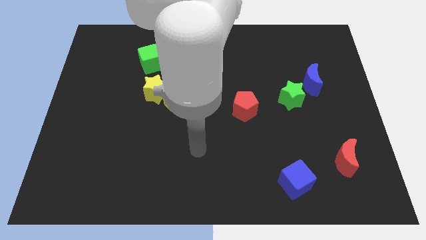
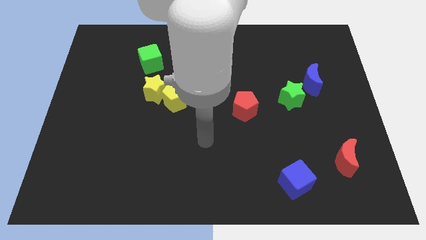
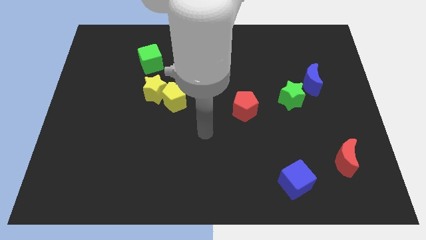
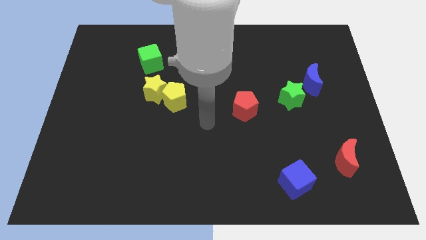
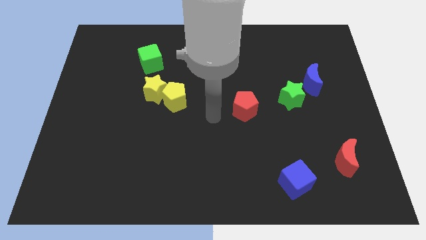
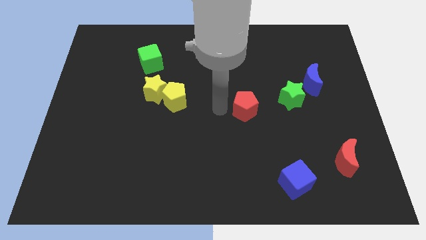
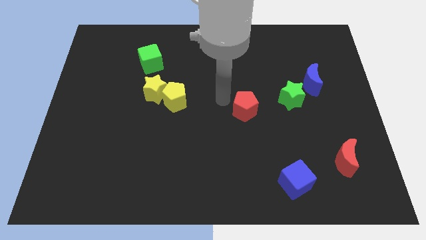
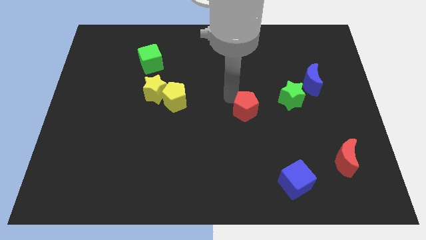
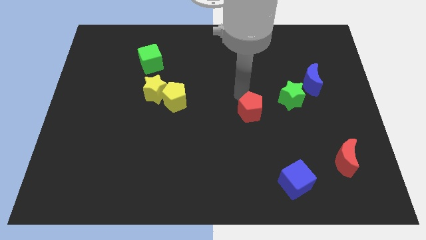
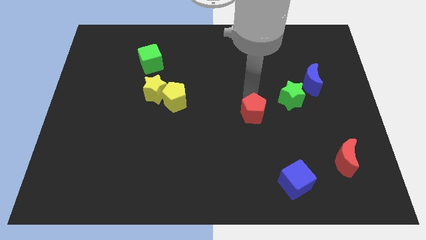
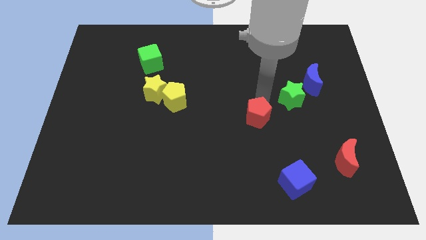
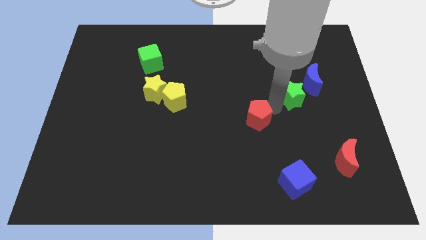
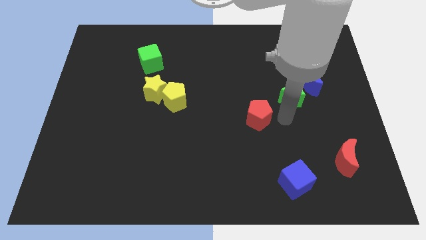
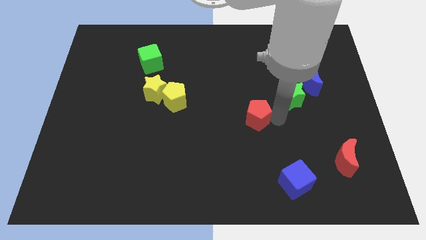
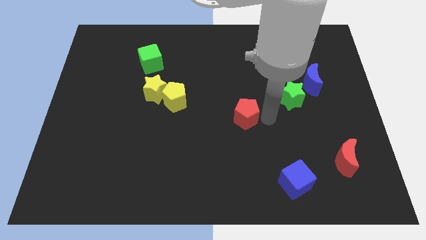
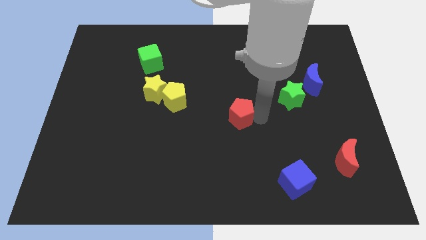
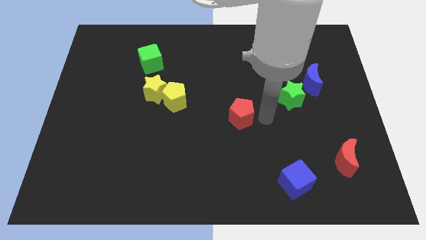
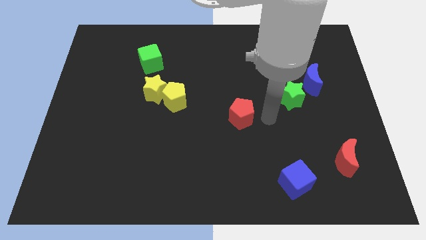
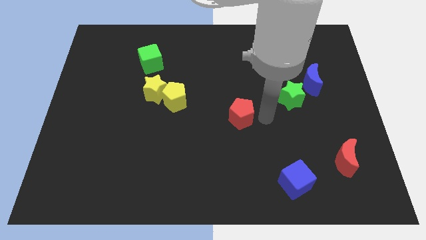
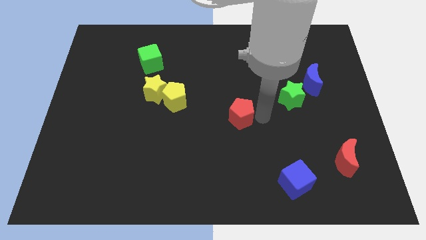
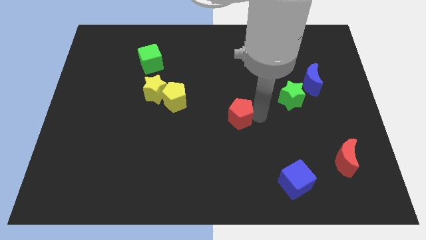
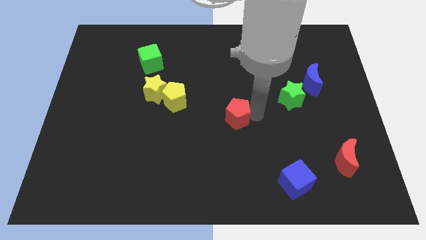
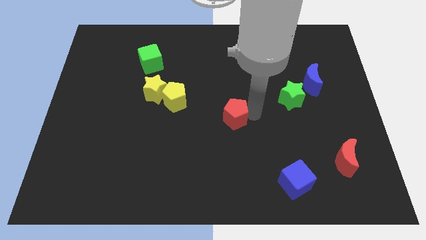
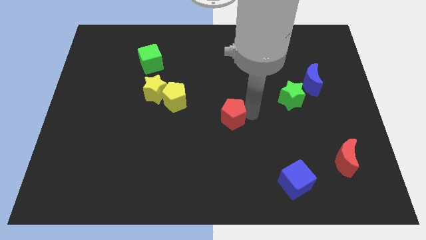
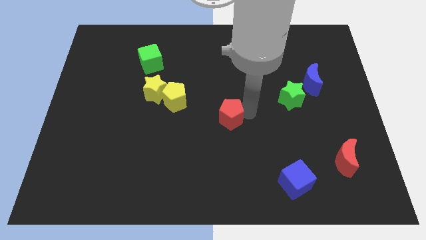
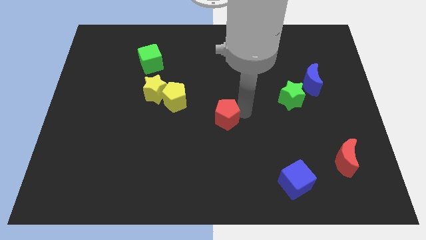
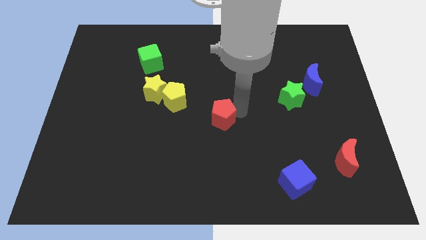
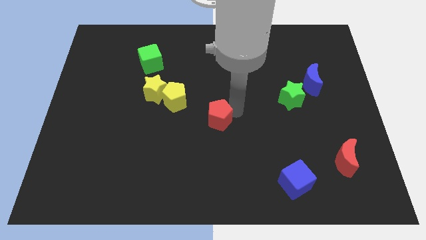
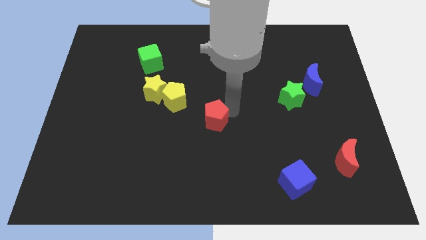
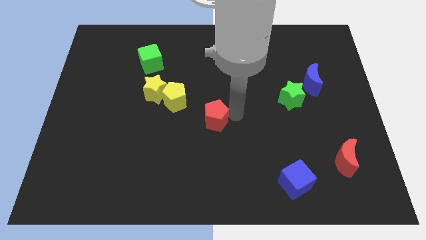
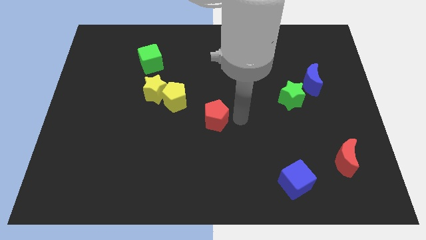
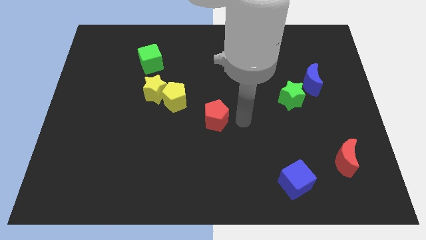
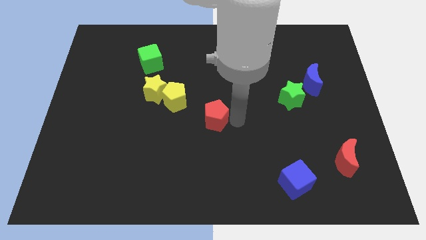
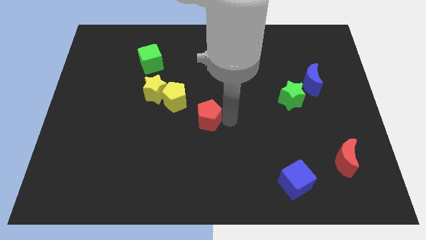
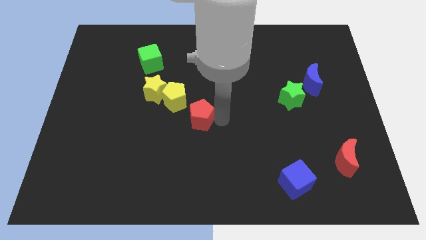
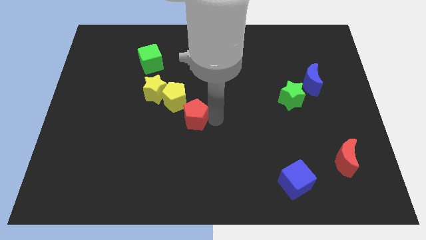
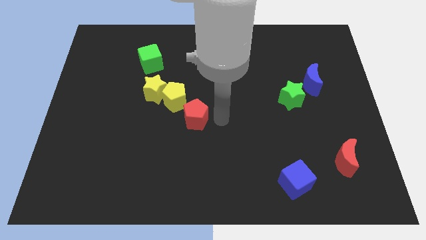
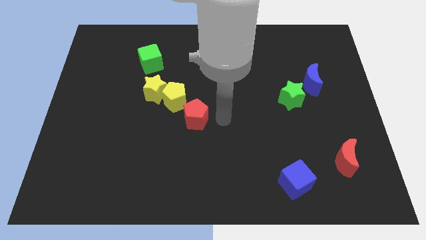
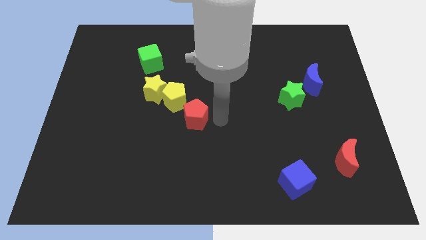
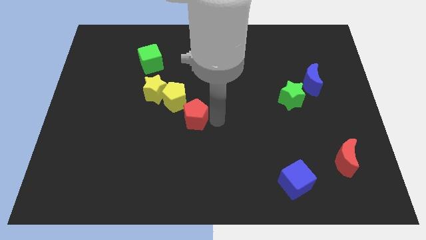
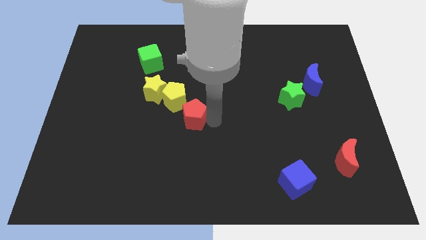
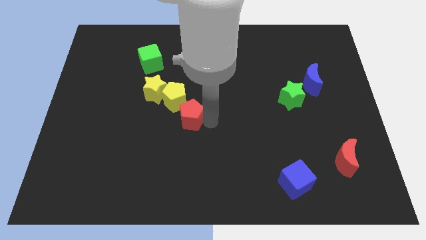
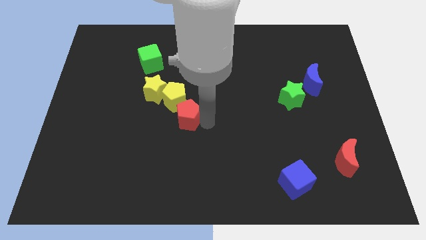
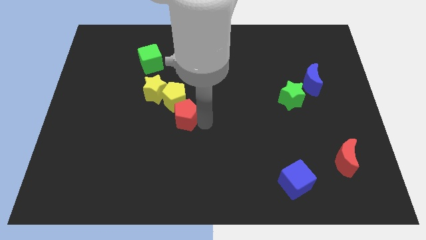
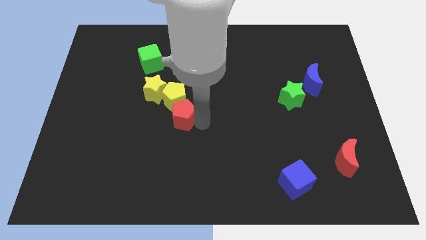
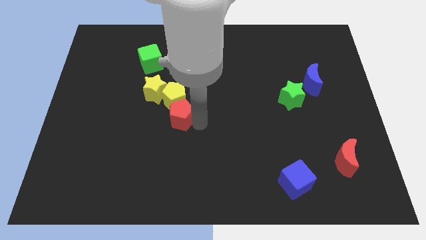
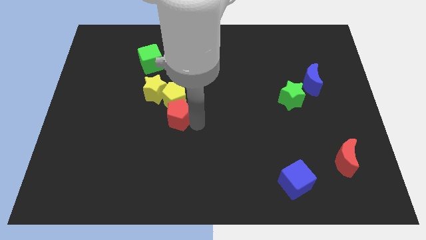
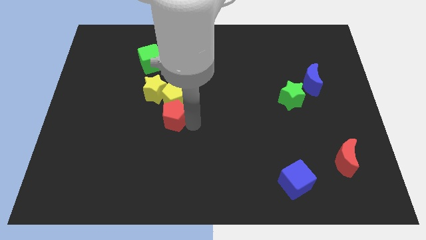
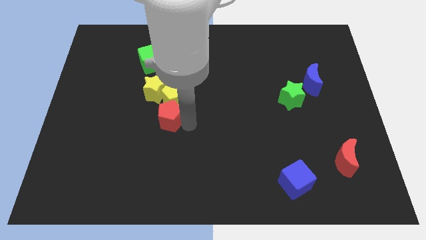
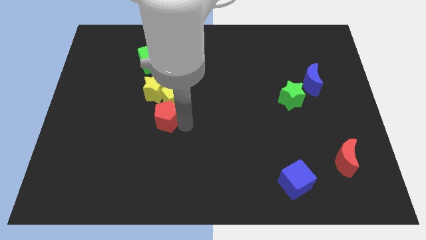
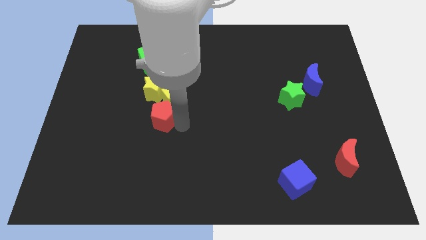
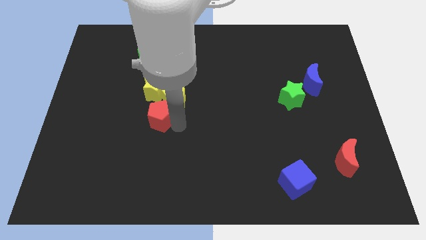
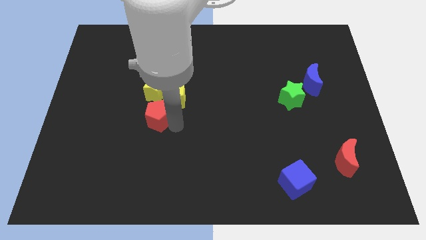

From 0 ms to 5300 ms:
move the red pentagon left

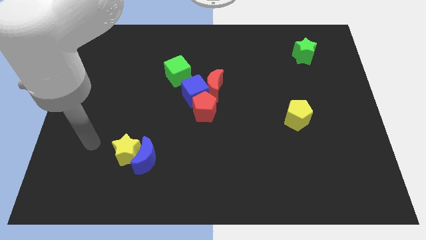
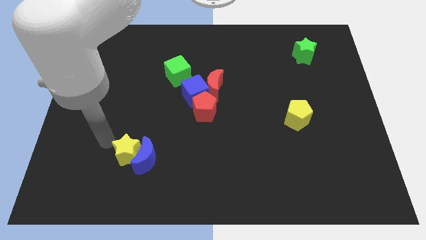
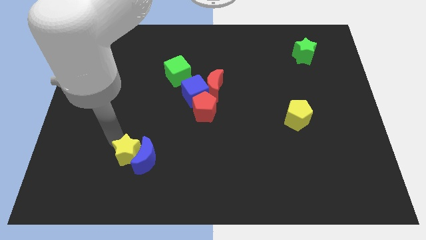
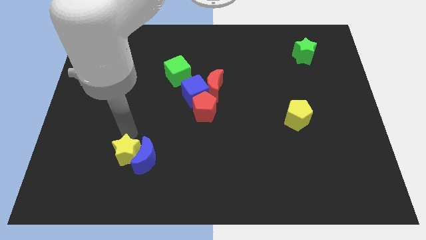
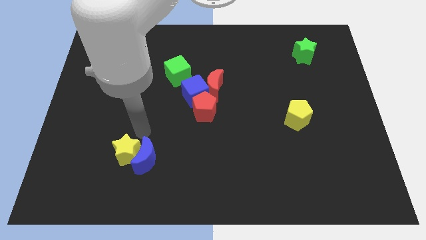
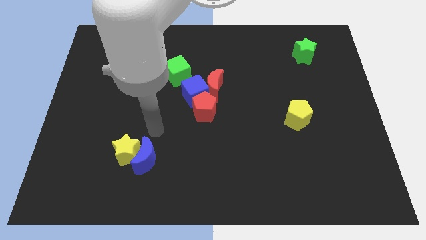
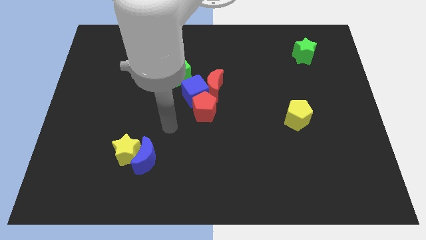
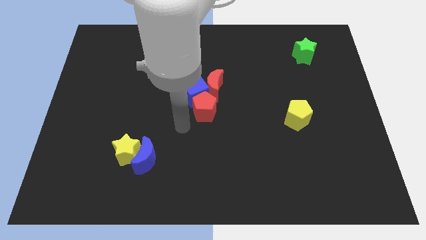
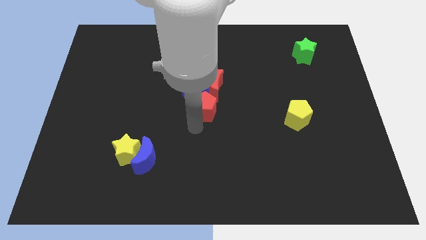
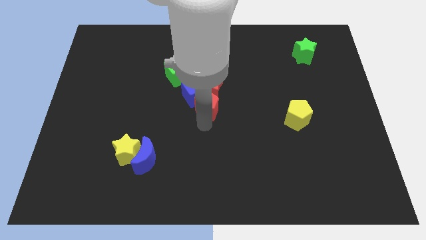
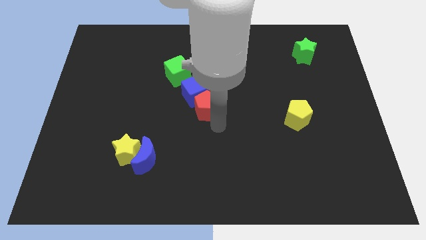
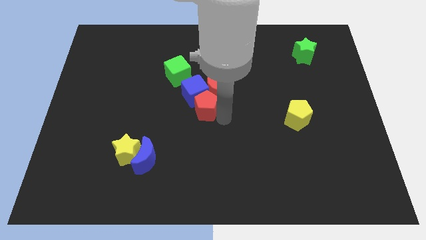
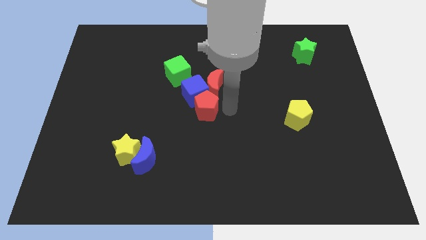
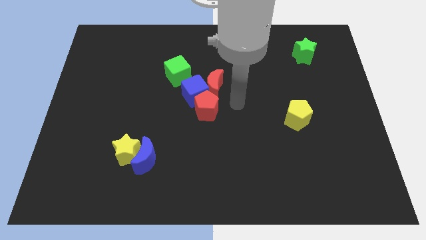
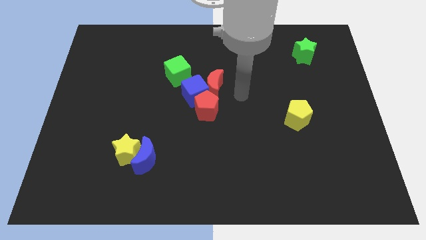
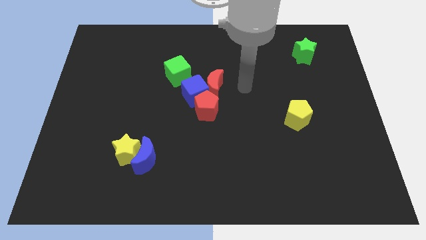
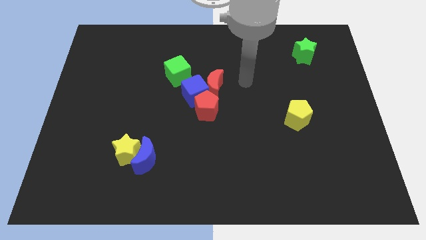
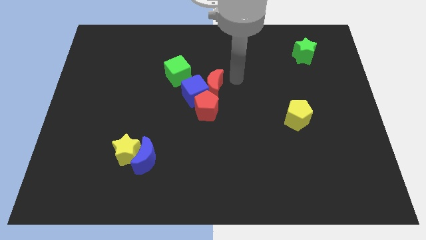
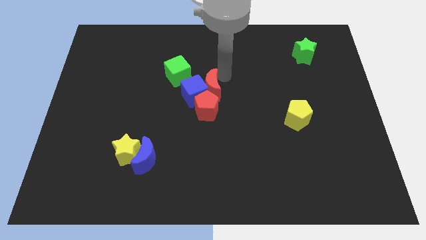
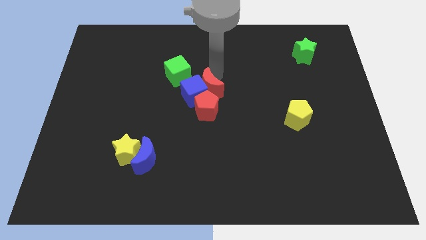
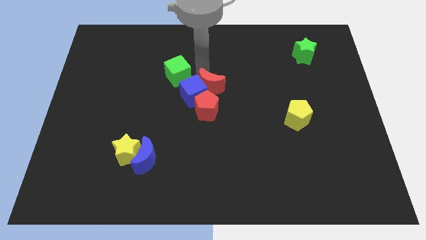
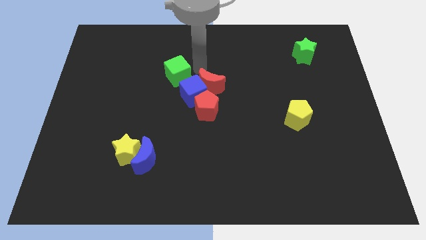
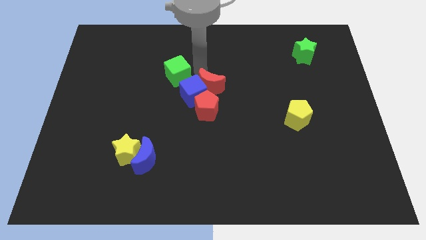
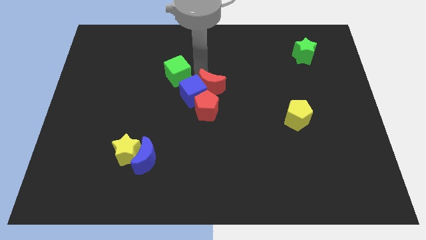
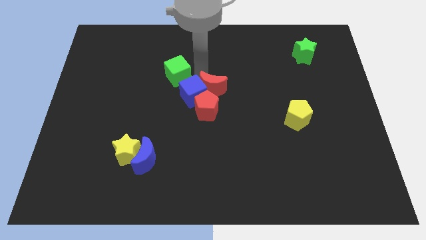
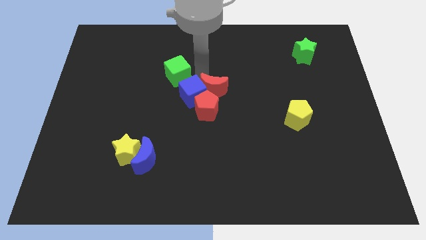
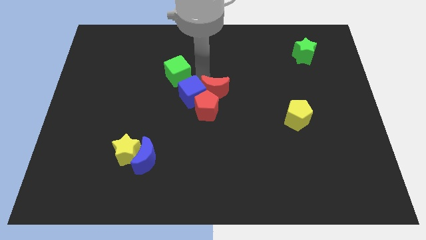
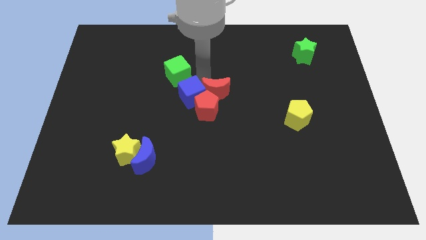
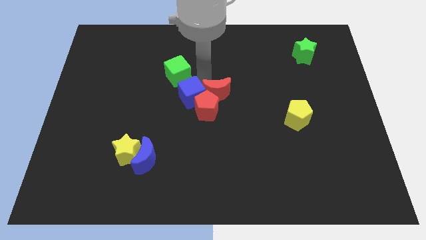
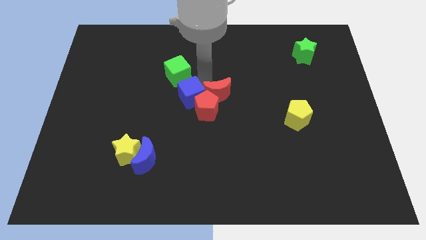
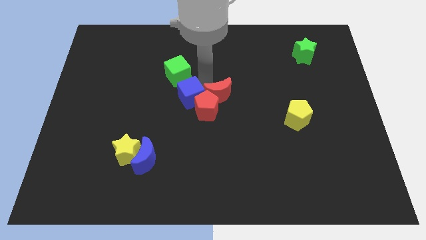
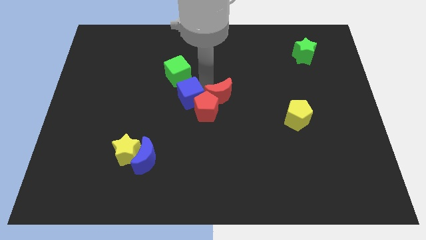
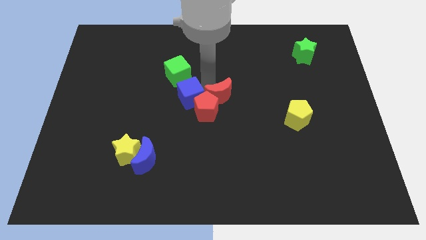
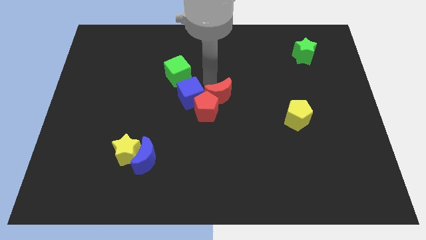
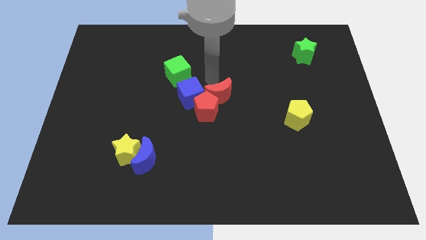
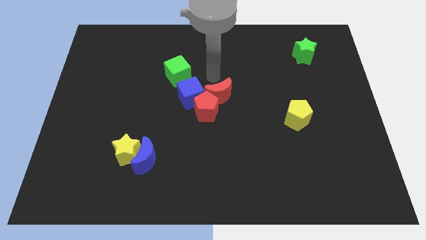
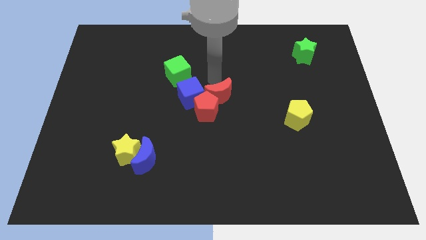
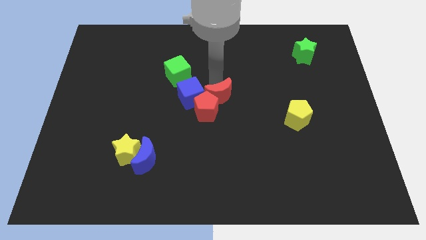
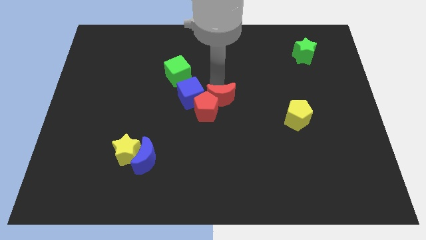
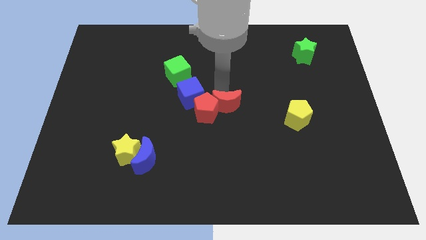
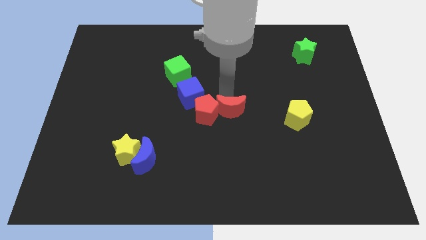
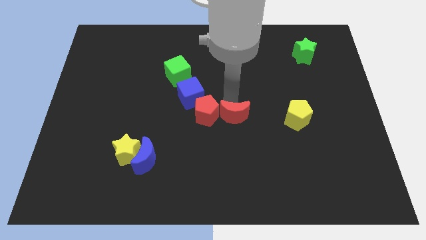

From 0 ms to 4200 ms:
push the red moon slightly downwards
